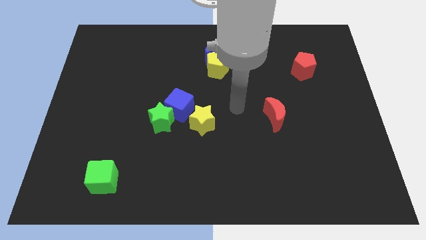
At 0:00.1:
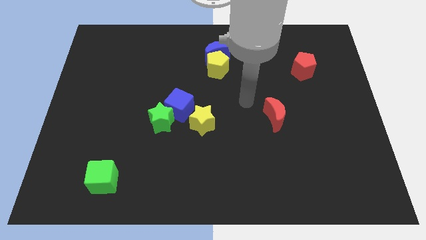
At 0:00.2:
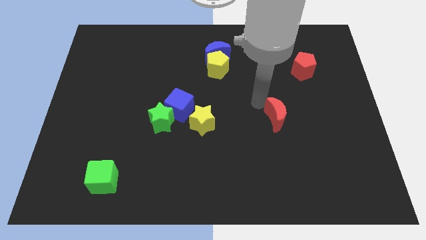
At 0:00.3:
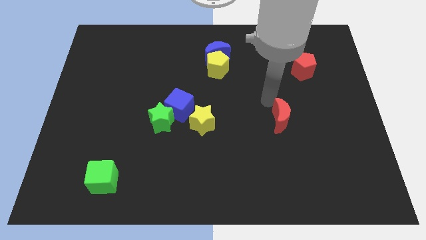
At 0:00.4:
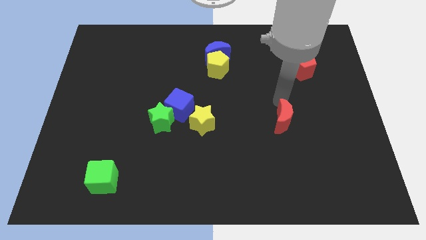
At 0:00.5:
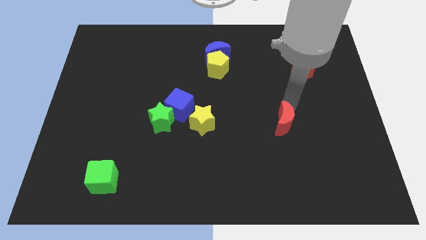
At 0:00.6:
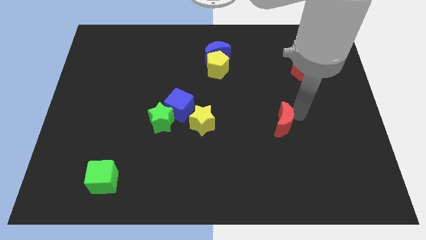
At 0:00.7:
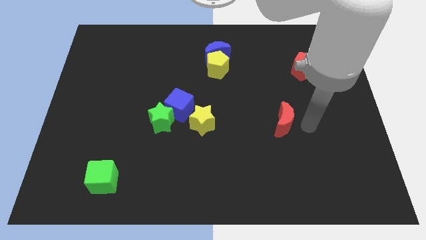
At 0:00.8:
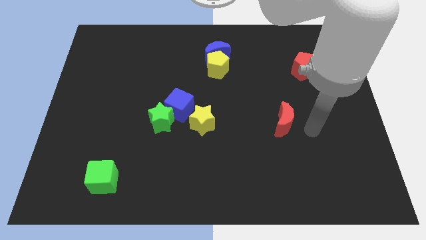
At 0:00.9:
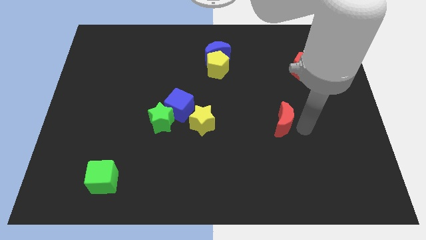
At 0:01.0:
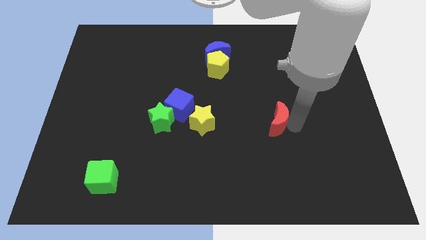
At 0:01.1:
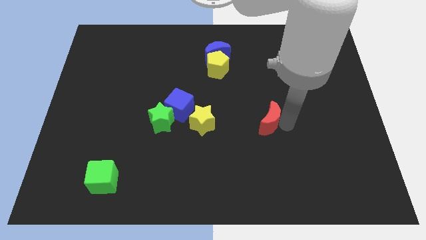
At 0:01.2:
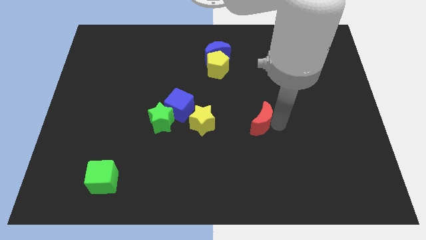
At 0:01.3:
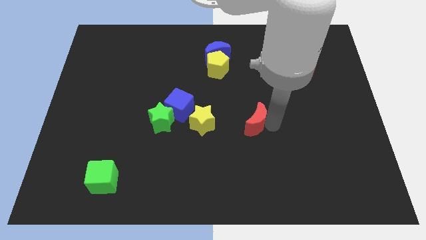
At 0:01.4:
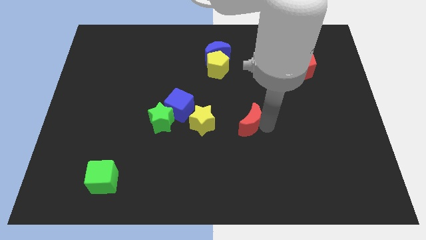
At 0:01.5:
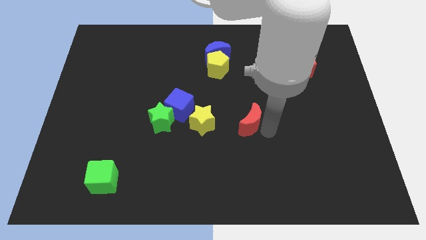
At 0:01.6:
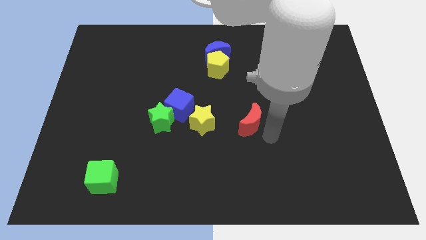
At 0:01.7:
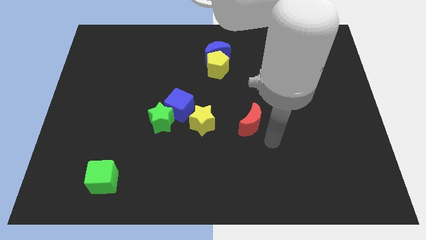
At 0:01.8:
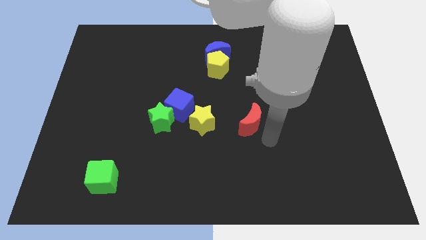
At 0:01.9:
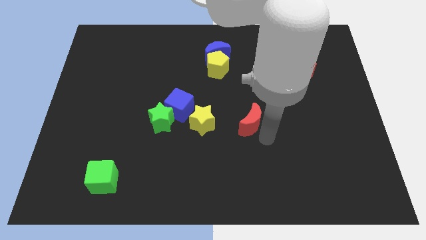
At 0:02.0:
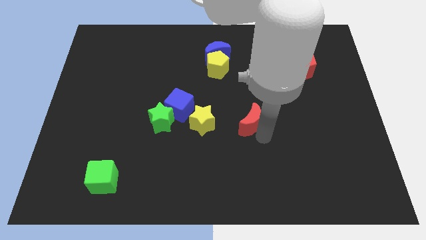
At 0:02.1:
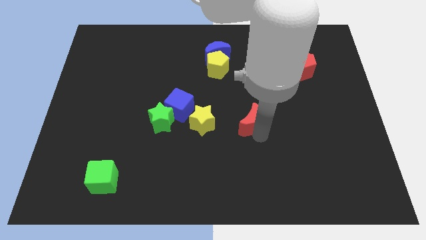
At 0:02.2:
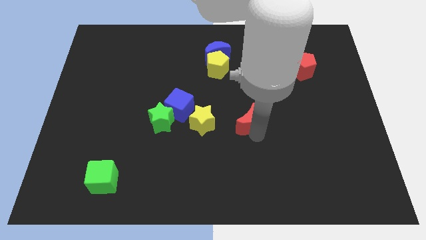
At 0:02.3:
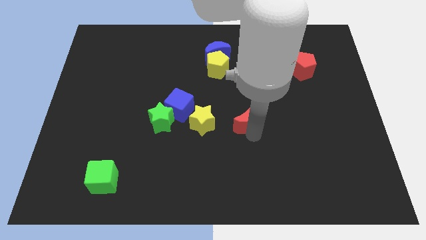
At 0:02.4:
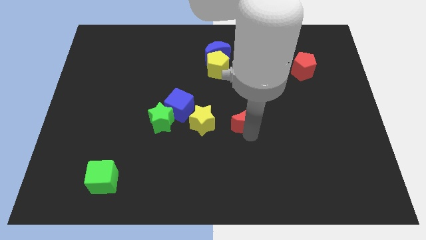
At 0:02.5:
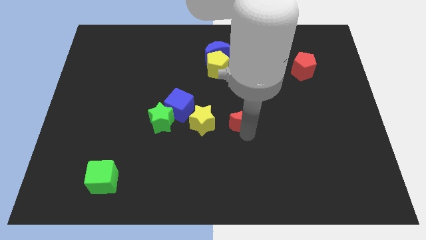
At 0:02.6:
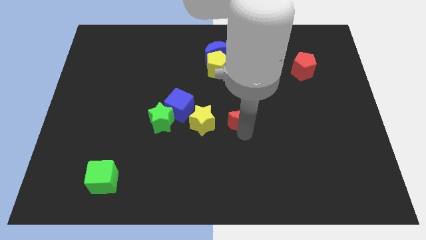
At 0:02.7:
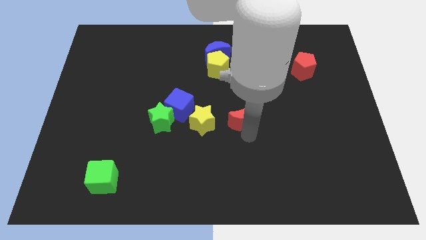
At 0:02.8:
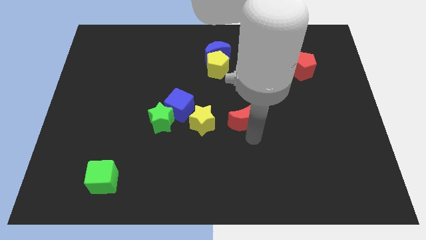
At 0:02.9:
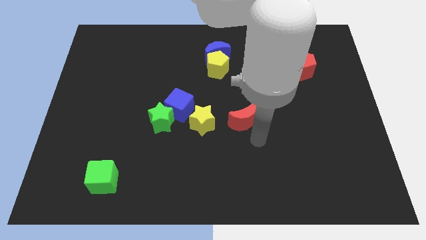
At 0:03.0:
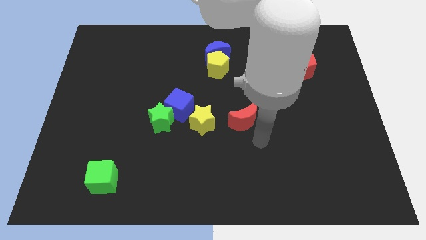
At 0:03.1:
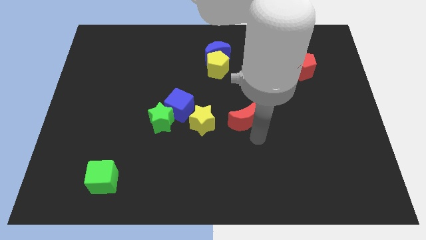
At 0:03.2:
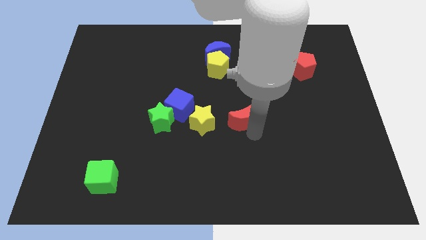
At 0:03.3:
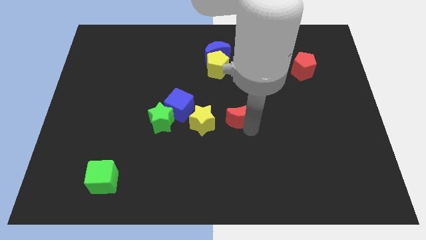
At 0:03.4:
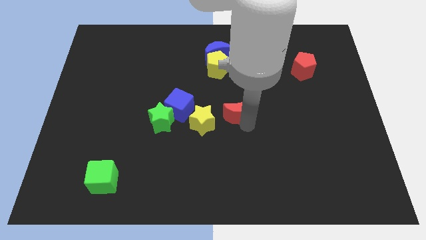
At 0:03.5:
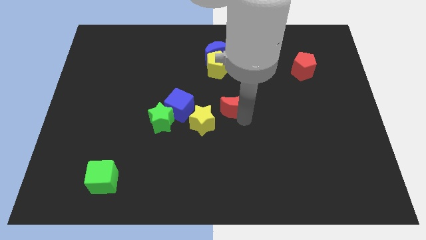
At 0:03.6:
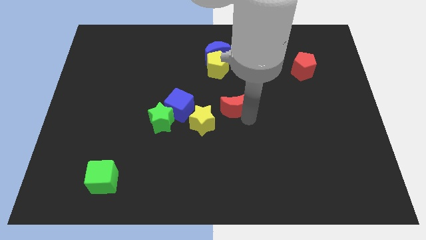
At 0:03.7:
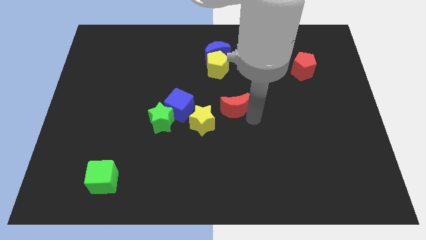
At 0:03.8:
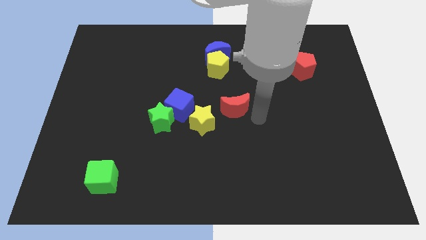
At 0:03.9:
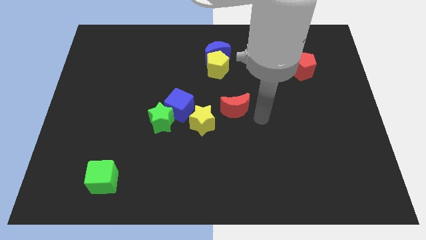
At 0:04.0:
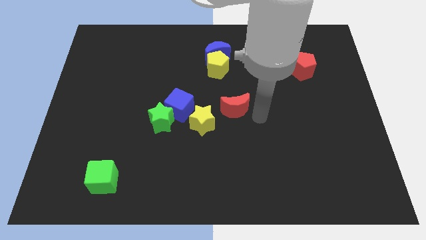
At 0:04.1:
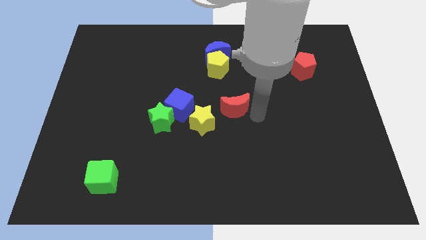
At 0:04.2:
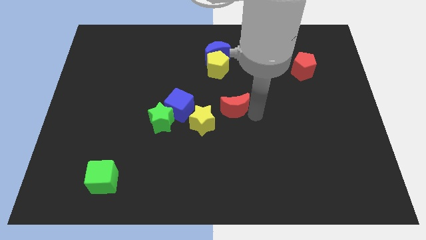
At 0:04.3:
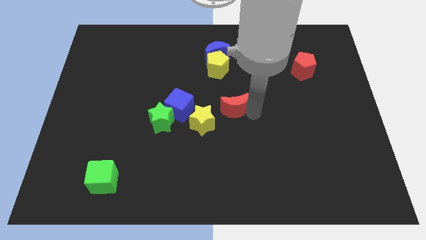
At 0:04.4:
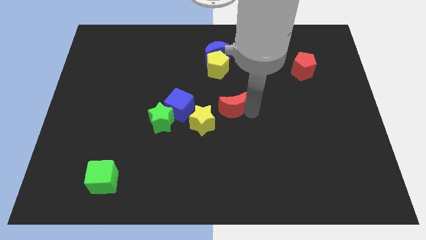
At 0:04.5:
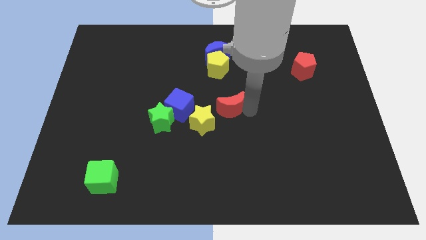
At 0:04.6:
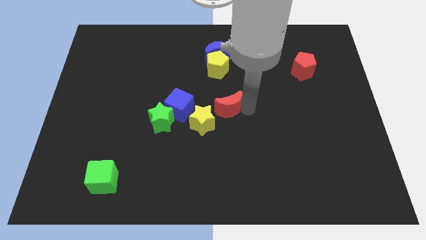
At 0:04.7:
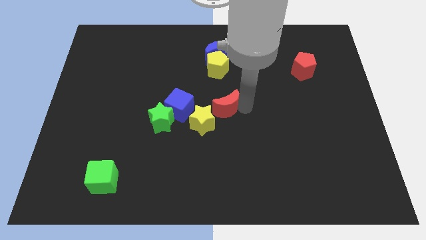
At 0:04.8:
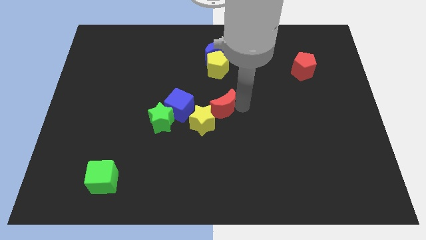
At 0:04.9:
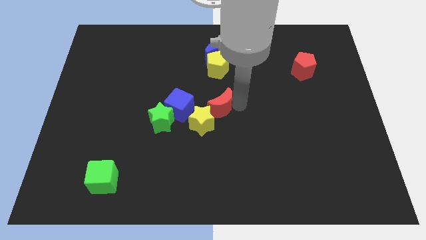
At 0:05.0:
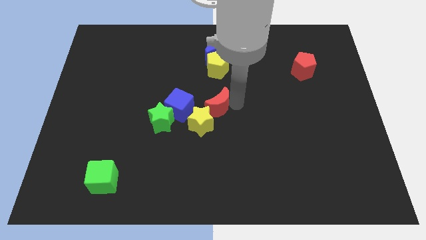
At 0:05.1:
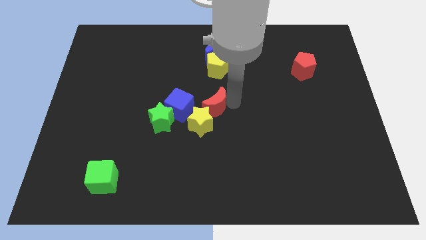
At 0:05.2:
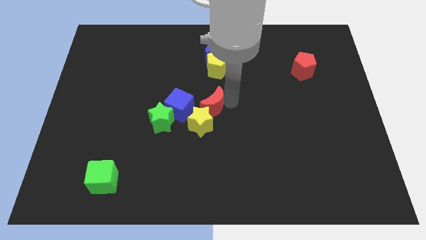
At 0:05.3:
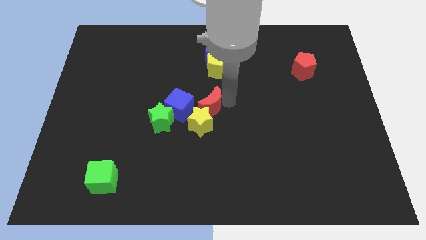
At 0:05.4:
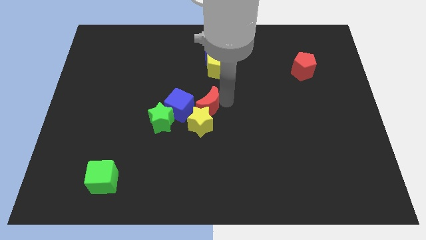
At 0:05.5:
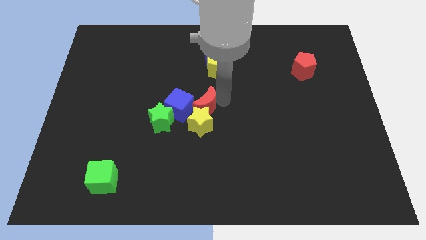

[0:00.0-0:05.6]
push the red moon diagonally up and to the right of the green star

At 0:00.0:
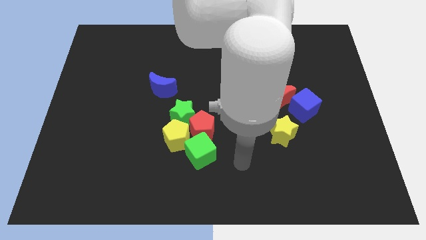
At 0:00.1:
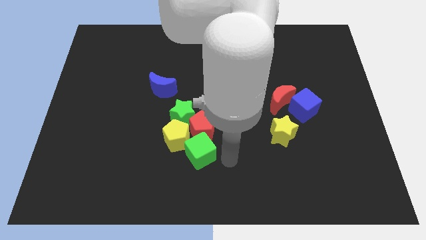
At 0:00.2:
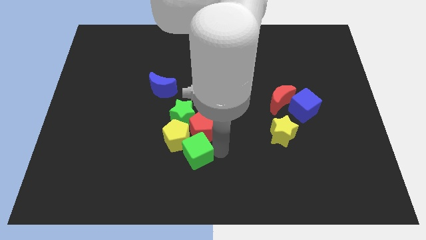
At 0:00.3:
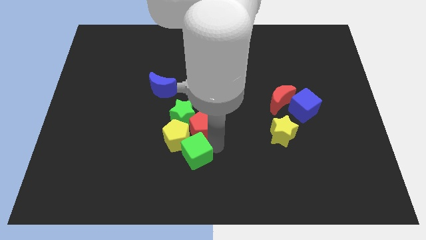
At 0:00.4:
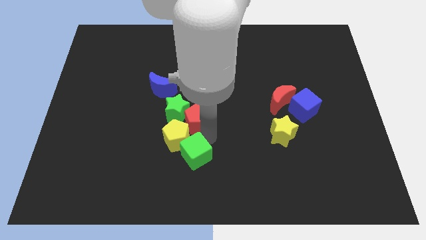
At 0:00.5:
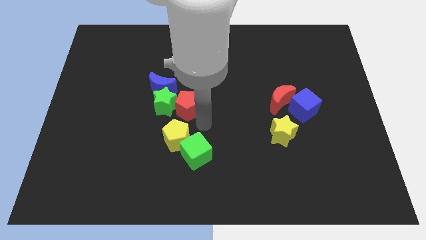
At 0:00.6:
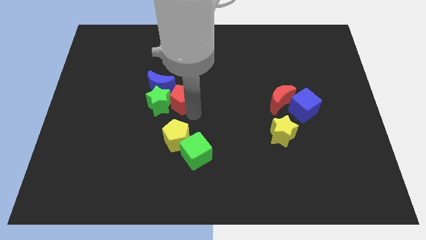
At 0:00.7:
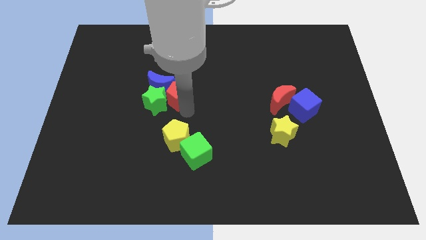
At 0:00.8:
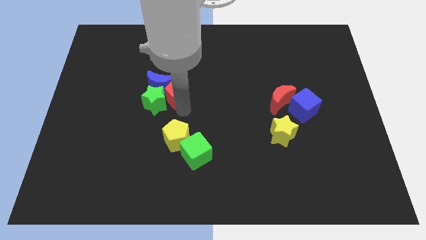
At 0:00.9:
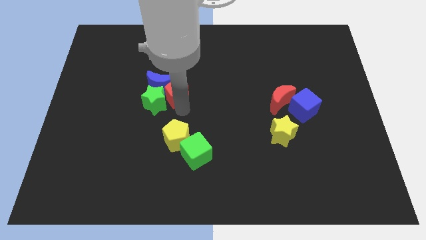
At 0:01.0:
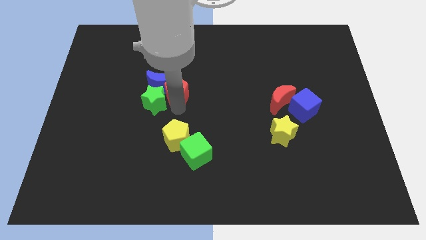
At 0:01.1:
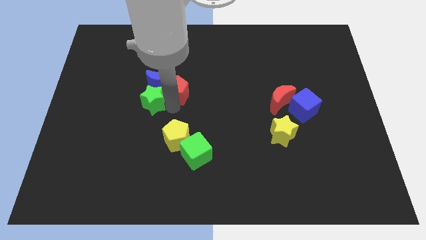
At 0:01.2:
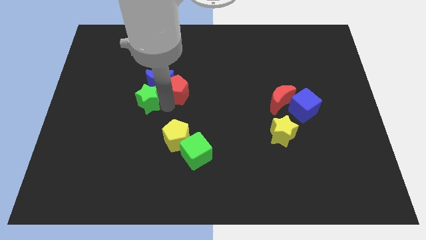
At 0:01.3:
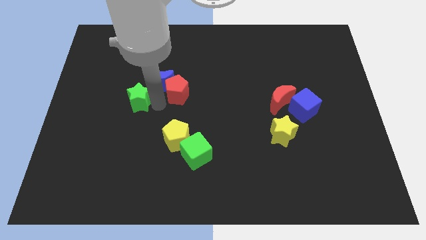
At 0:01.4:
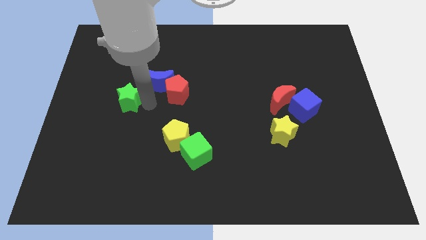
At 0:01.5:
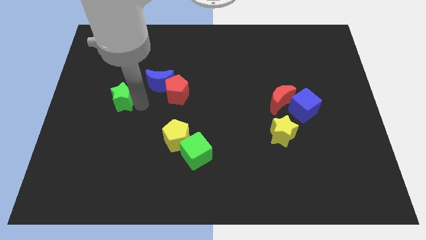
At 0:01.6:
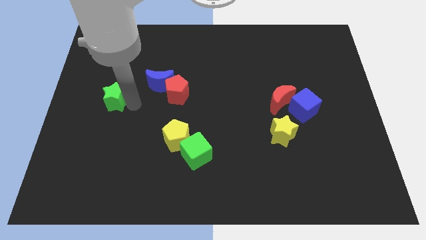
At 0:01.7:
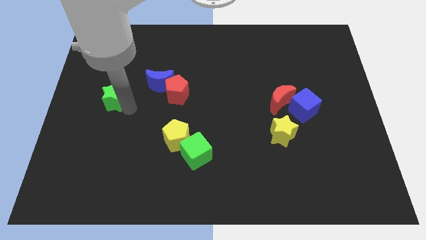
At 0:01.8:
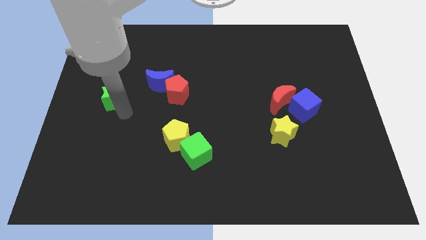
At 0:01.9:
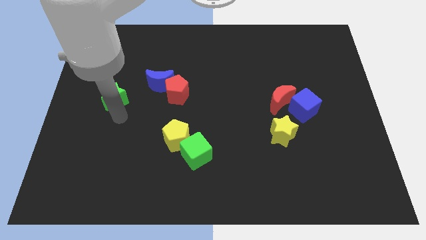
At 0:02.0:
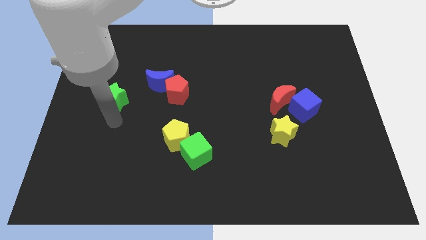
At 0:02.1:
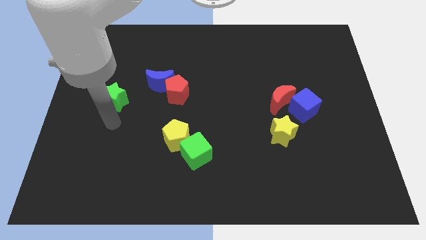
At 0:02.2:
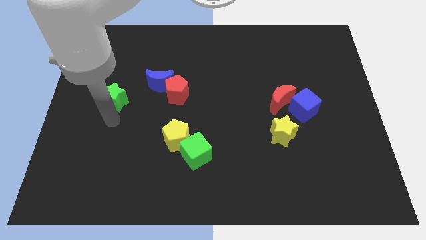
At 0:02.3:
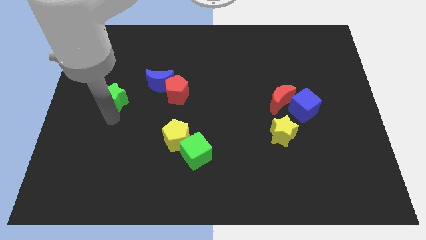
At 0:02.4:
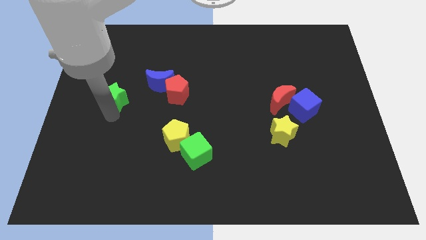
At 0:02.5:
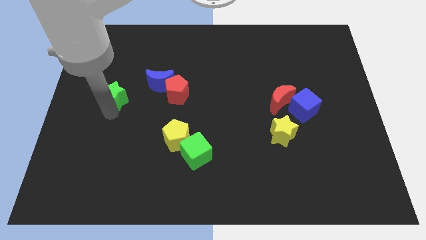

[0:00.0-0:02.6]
push the green star to the left of the blue moon
